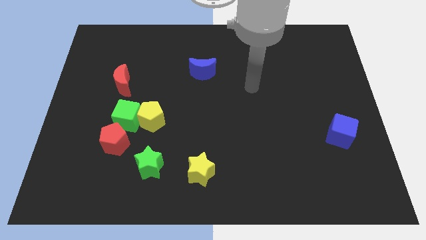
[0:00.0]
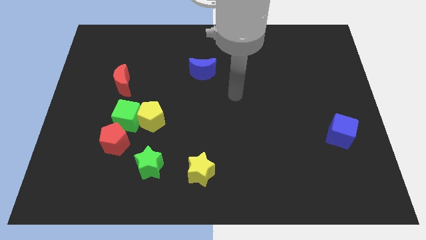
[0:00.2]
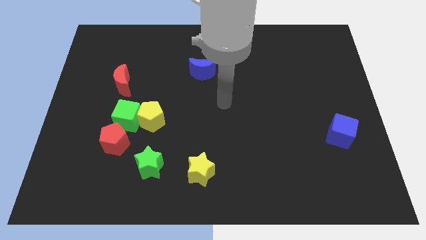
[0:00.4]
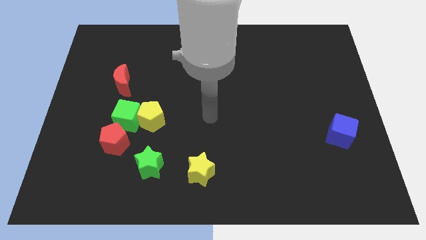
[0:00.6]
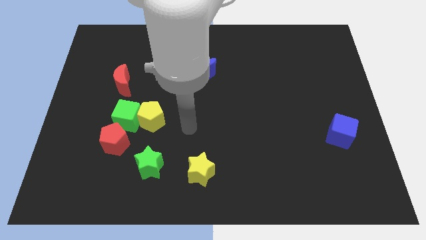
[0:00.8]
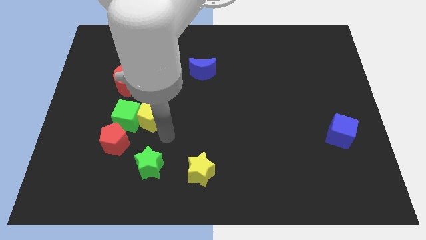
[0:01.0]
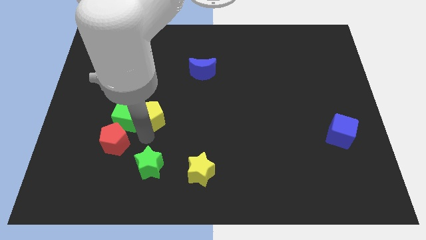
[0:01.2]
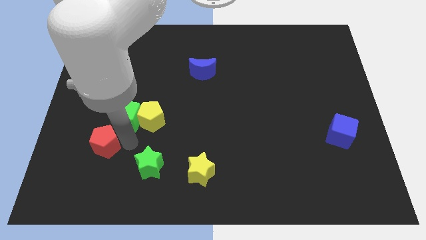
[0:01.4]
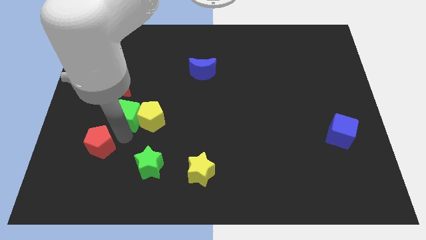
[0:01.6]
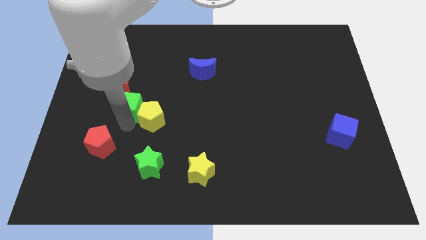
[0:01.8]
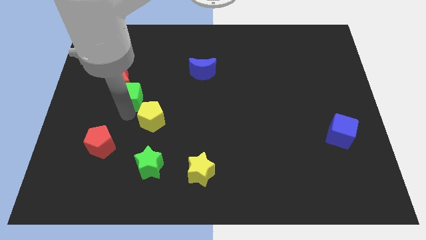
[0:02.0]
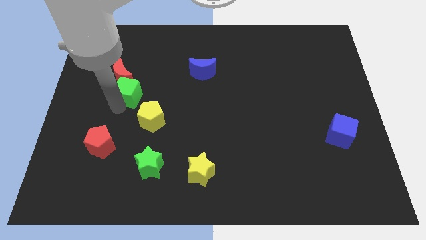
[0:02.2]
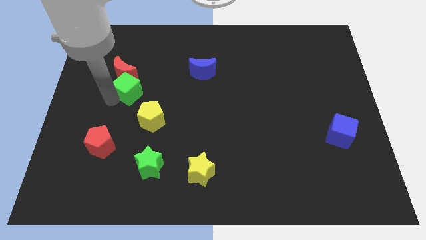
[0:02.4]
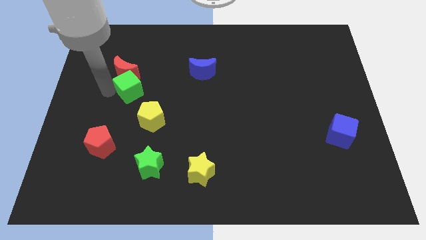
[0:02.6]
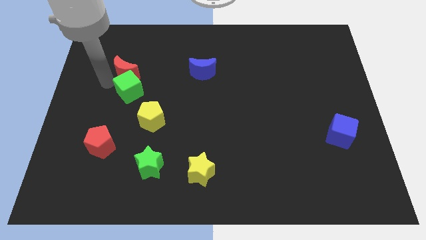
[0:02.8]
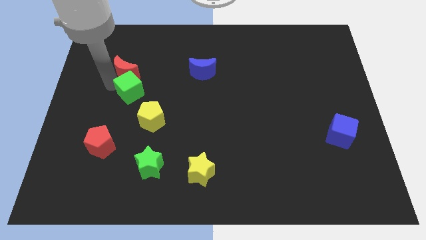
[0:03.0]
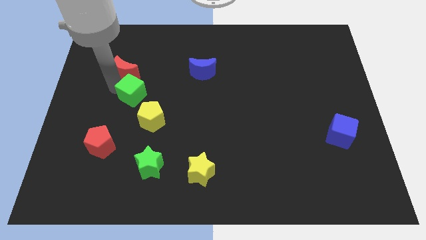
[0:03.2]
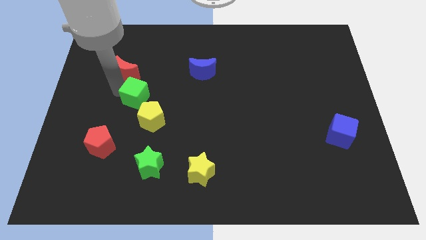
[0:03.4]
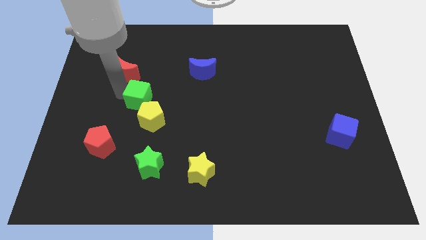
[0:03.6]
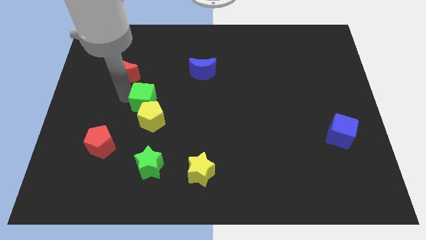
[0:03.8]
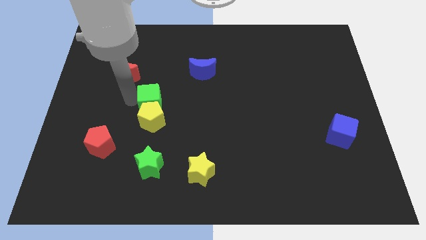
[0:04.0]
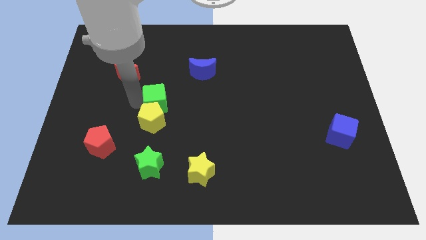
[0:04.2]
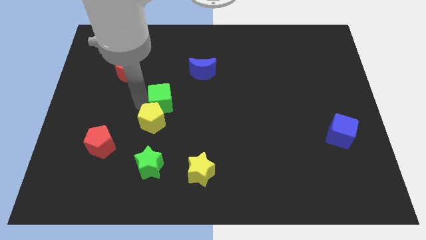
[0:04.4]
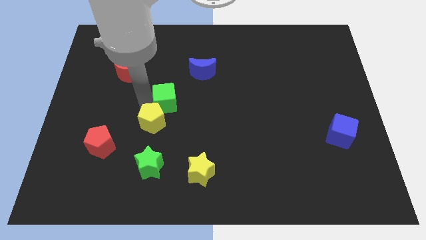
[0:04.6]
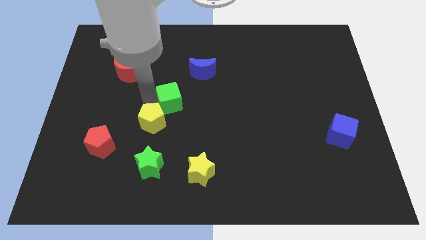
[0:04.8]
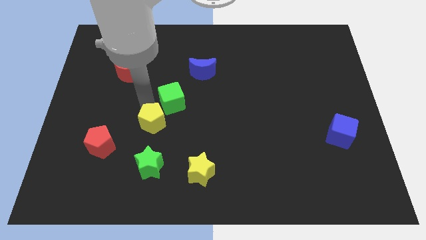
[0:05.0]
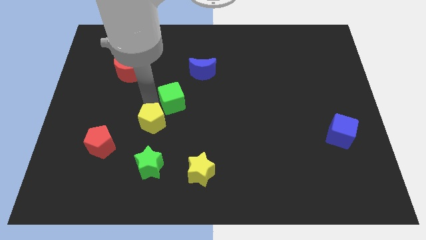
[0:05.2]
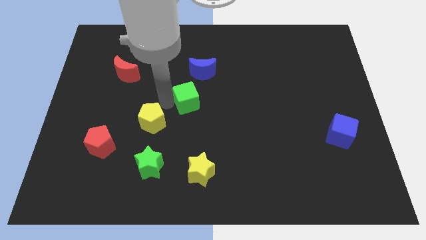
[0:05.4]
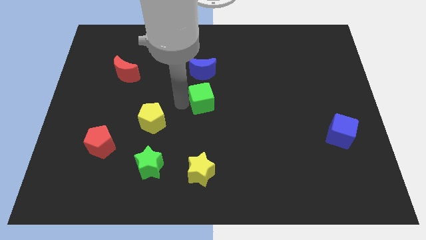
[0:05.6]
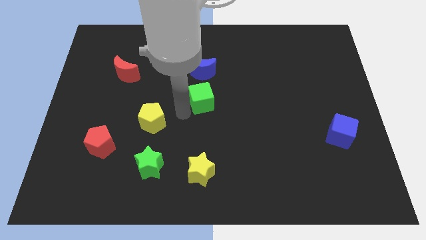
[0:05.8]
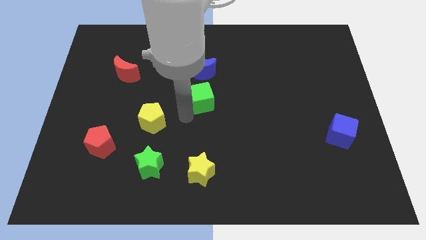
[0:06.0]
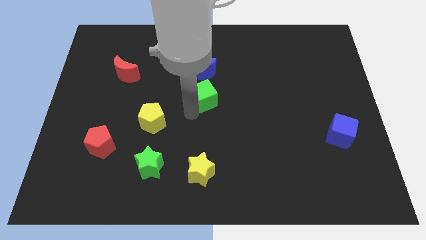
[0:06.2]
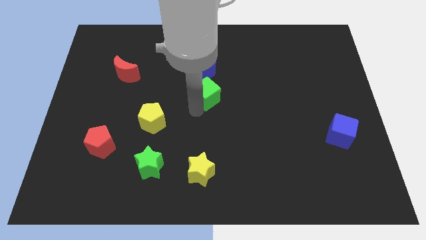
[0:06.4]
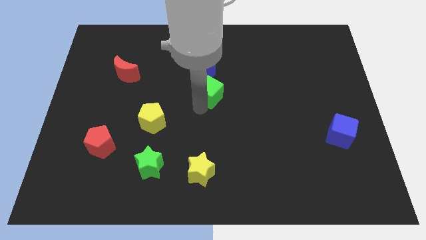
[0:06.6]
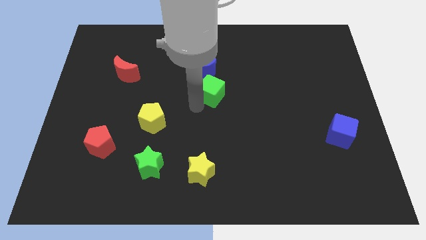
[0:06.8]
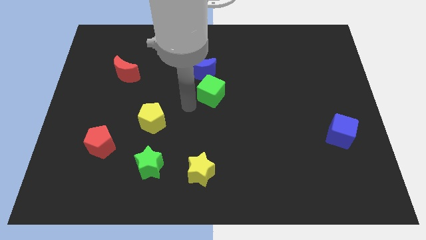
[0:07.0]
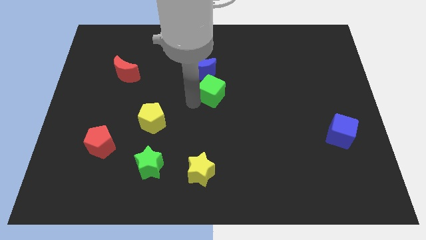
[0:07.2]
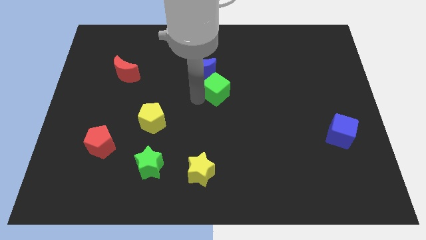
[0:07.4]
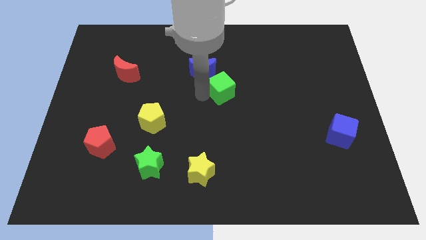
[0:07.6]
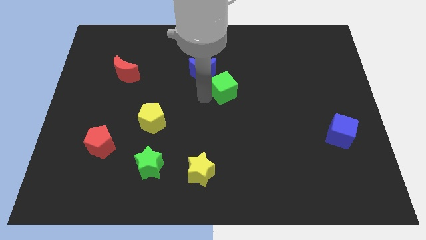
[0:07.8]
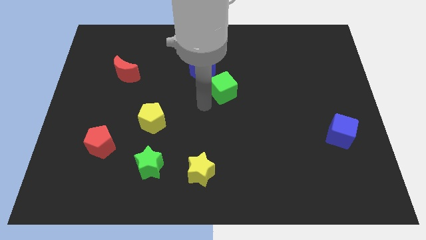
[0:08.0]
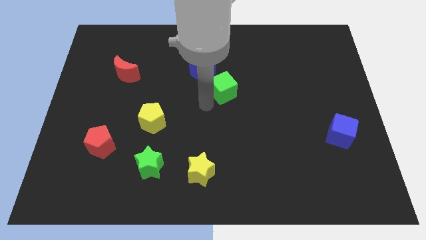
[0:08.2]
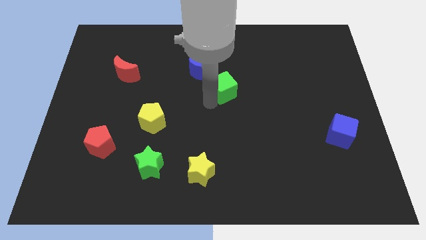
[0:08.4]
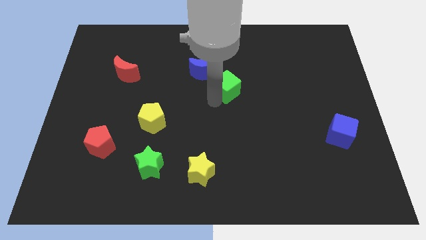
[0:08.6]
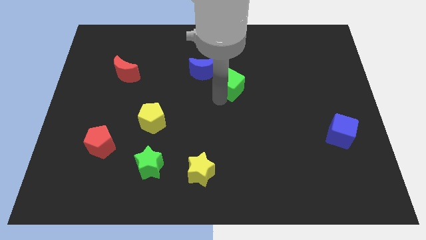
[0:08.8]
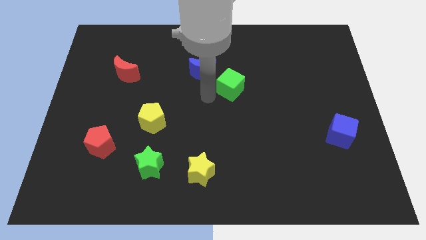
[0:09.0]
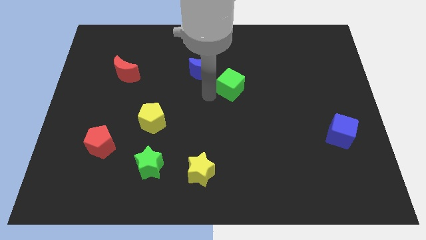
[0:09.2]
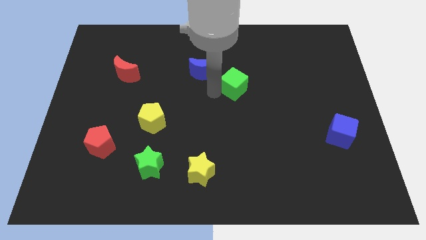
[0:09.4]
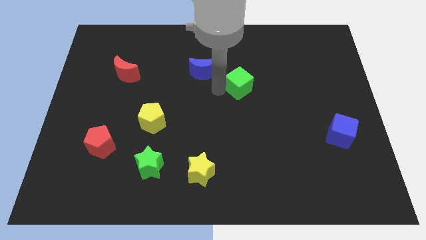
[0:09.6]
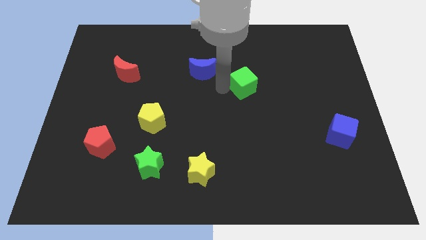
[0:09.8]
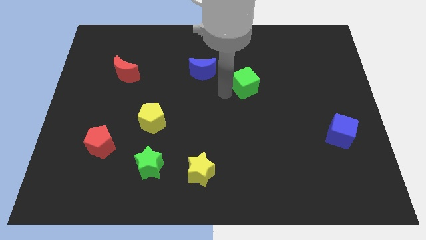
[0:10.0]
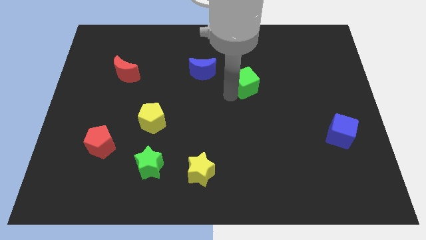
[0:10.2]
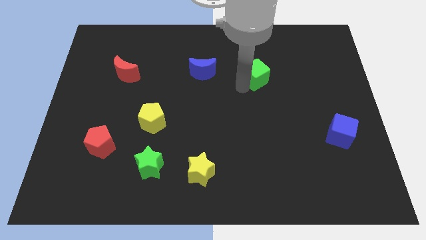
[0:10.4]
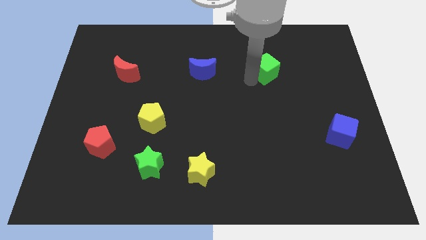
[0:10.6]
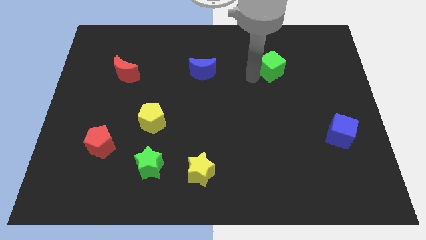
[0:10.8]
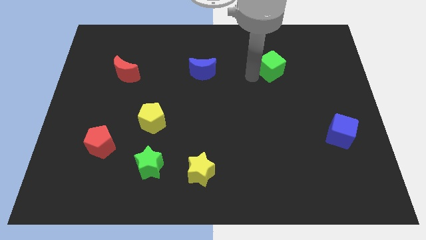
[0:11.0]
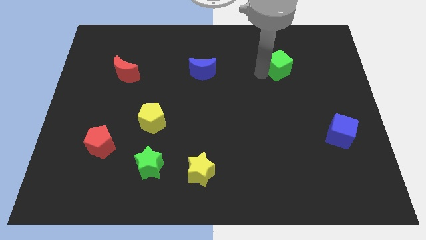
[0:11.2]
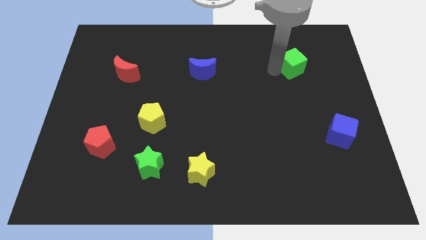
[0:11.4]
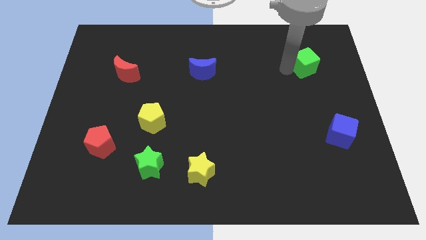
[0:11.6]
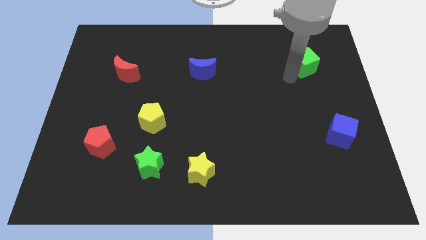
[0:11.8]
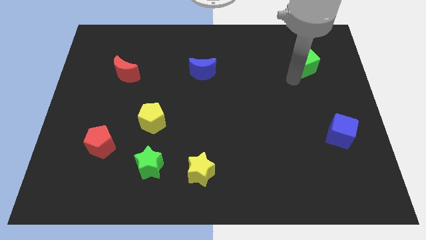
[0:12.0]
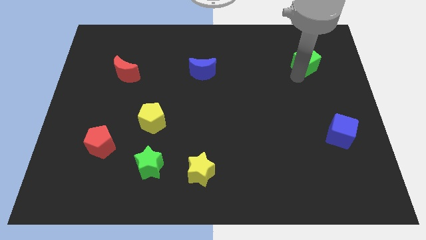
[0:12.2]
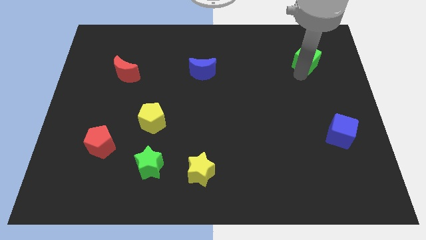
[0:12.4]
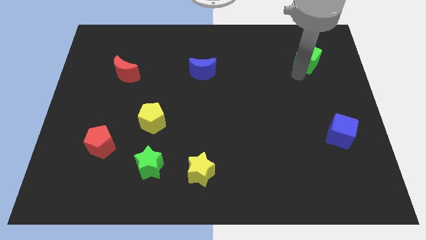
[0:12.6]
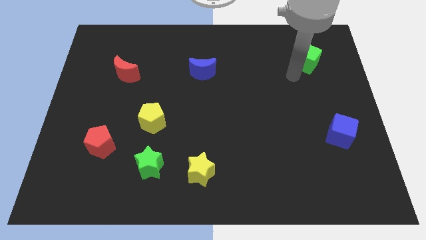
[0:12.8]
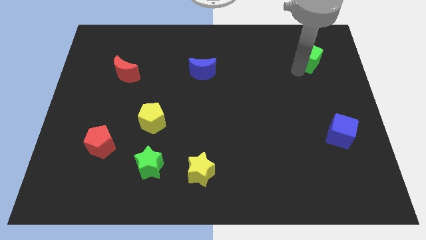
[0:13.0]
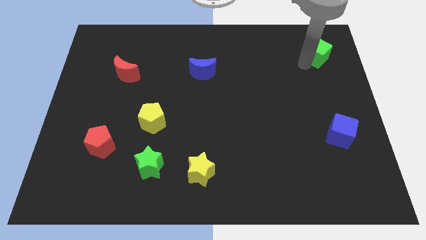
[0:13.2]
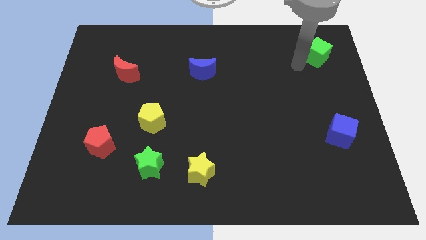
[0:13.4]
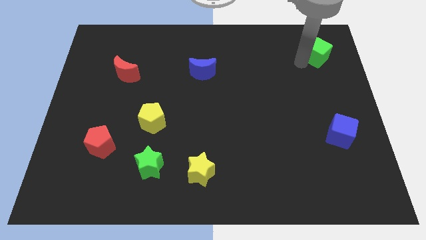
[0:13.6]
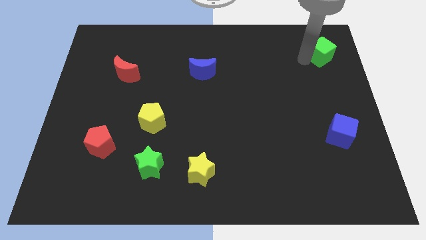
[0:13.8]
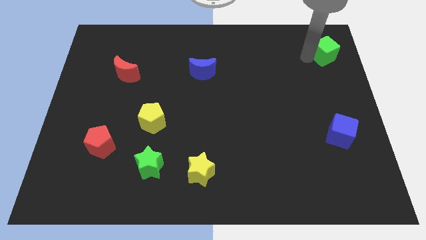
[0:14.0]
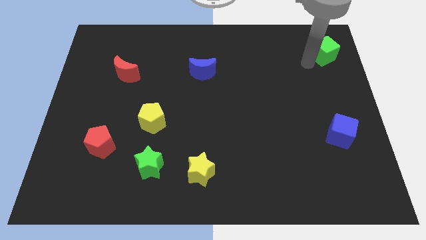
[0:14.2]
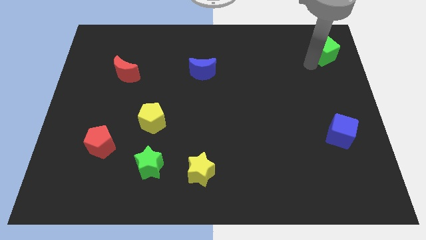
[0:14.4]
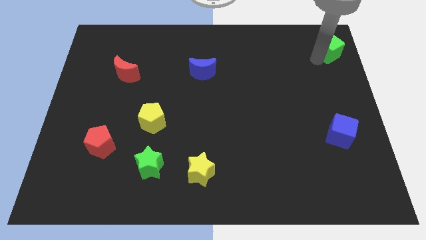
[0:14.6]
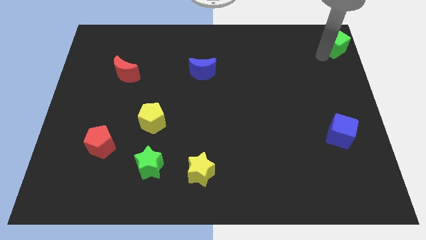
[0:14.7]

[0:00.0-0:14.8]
push the green cube to the top right
